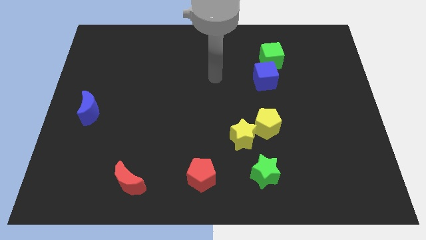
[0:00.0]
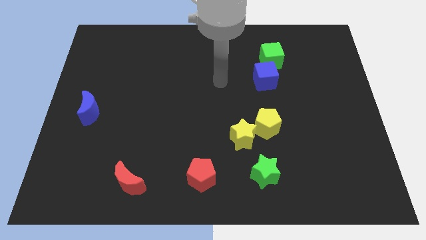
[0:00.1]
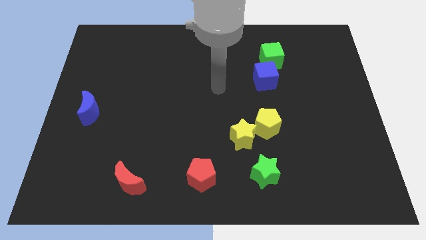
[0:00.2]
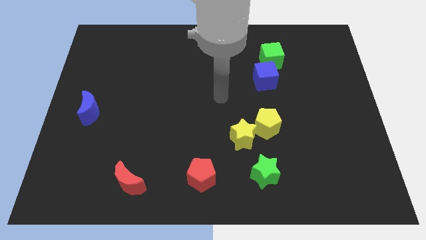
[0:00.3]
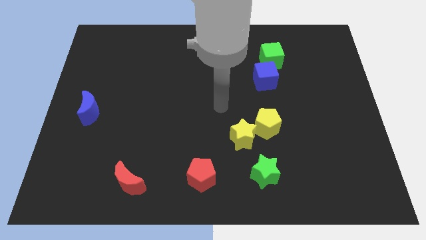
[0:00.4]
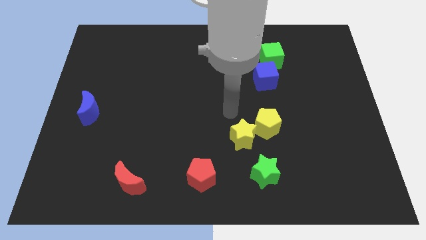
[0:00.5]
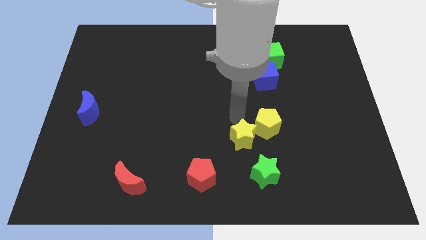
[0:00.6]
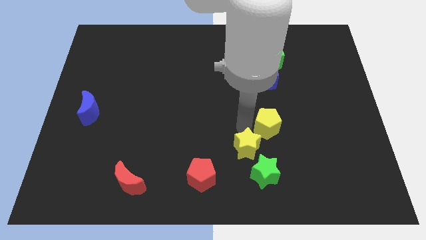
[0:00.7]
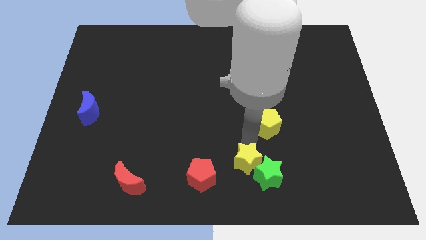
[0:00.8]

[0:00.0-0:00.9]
pull the yellow pentagon apart from the yellow star

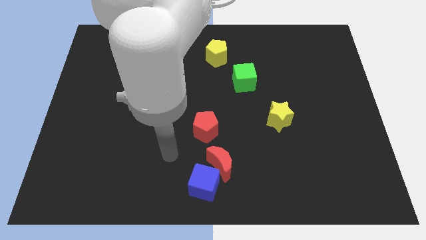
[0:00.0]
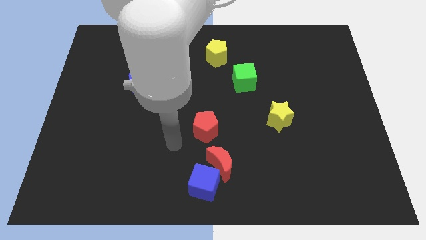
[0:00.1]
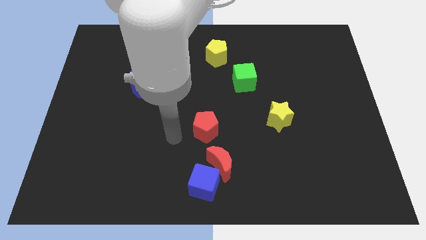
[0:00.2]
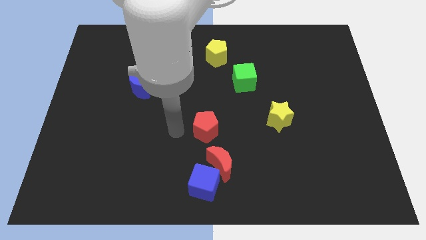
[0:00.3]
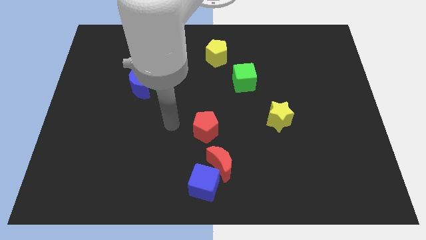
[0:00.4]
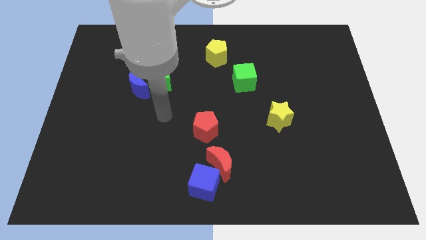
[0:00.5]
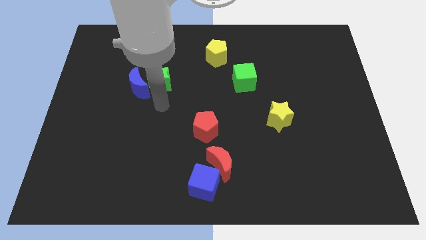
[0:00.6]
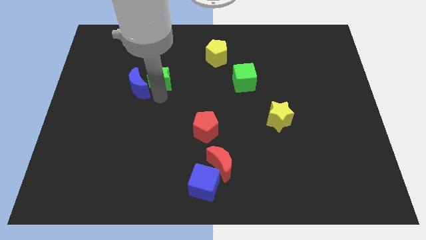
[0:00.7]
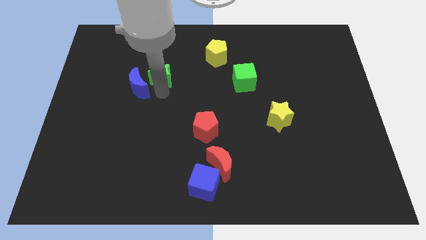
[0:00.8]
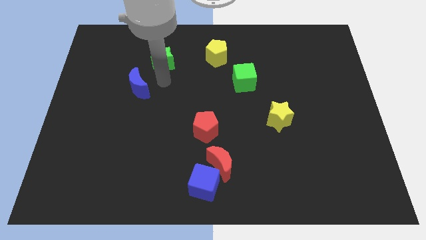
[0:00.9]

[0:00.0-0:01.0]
pull the blue moon apart from the green star

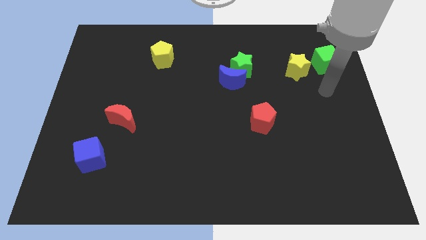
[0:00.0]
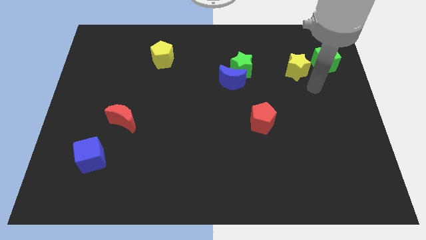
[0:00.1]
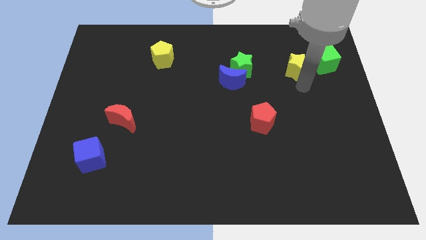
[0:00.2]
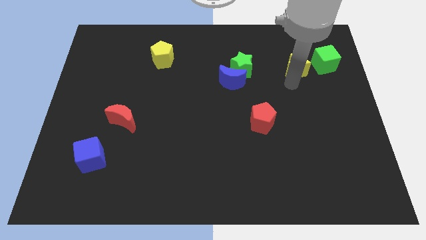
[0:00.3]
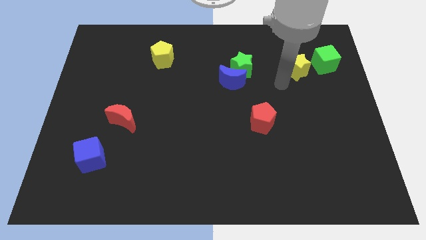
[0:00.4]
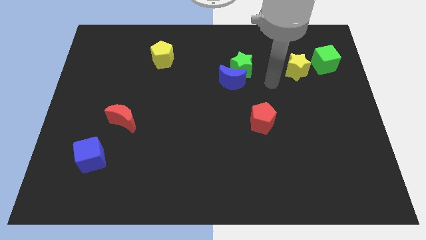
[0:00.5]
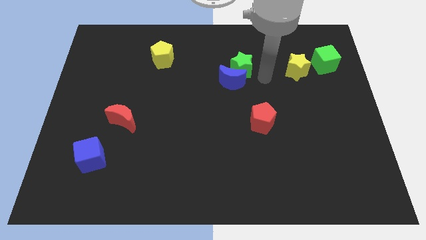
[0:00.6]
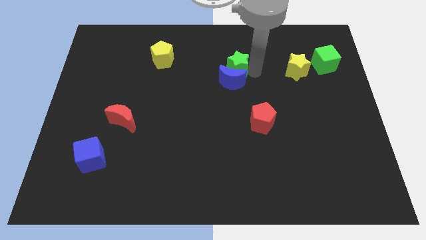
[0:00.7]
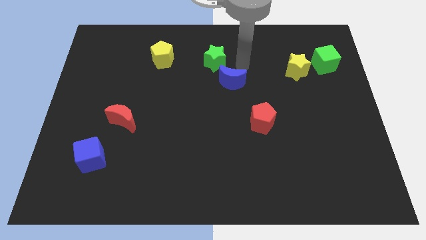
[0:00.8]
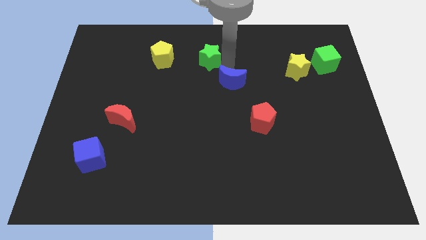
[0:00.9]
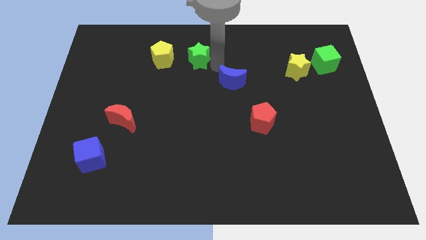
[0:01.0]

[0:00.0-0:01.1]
move the blue moon away from the green star

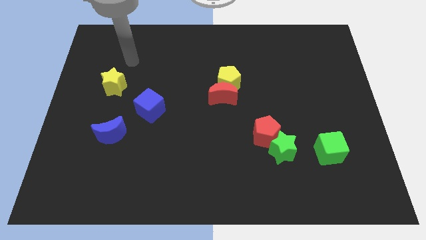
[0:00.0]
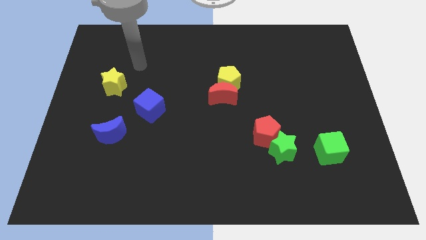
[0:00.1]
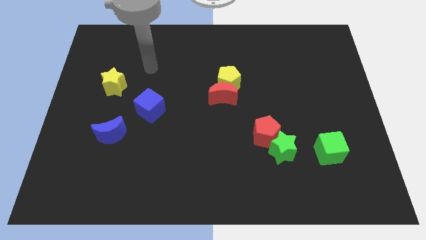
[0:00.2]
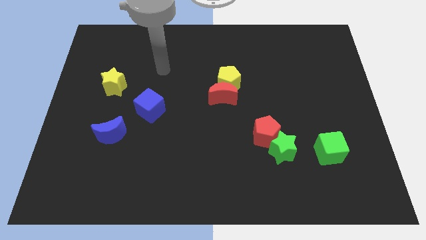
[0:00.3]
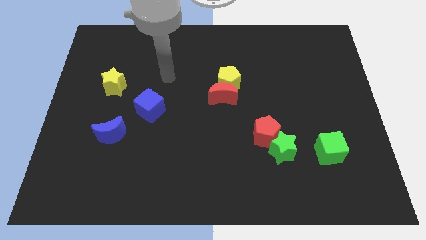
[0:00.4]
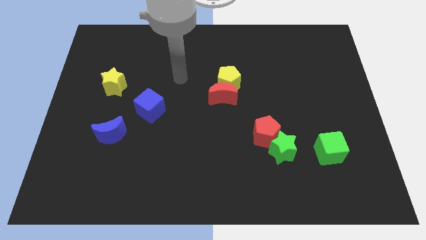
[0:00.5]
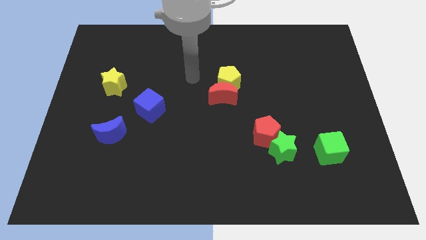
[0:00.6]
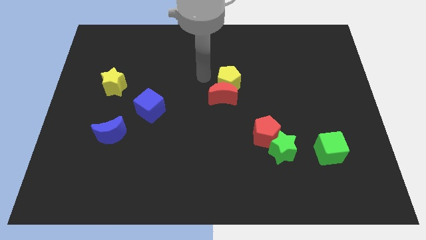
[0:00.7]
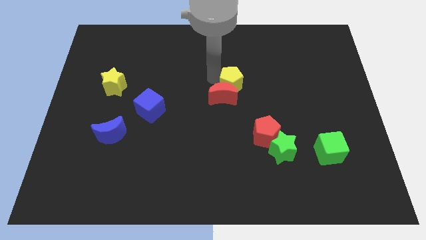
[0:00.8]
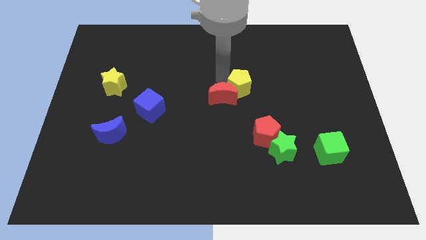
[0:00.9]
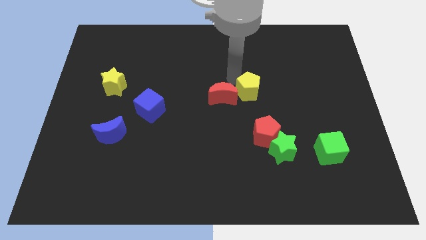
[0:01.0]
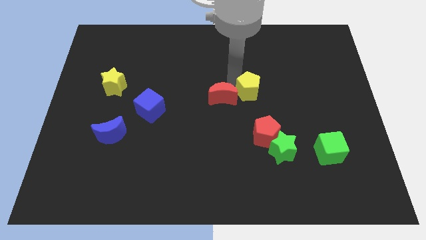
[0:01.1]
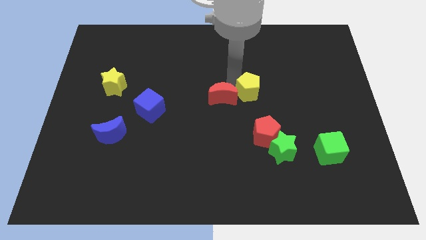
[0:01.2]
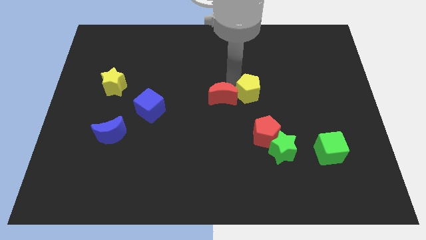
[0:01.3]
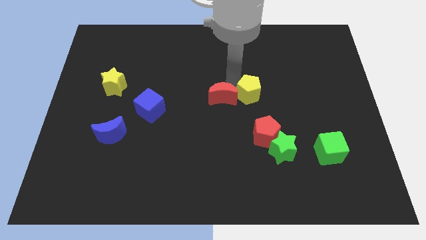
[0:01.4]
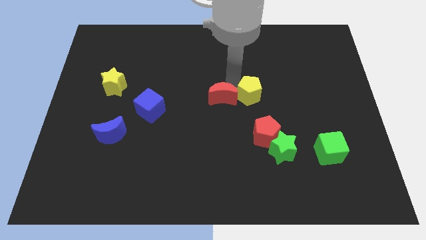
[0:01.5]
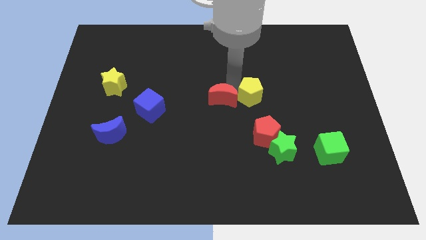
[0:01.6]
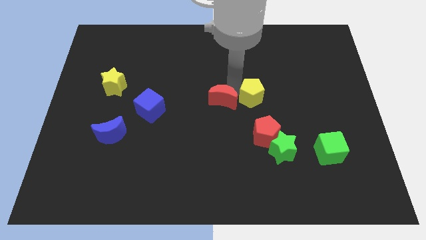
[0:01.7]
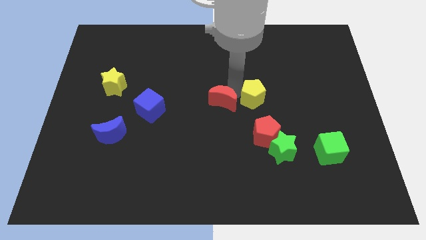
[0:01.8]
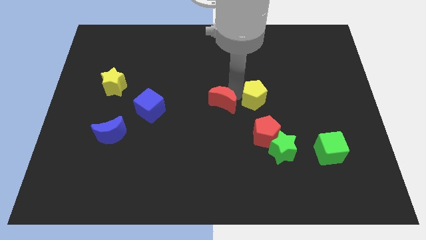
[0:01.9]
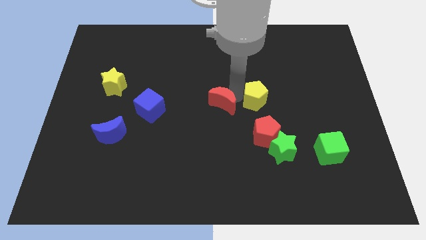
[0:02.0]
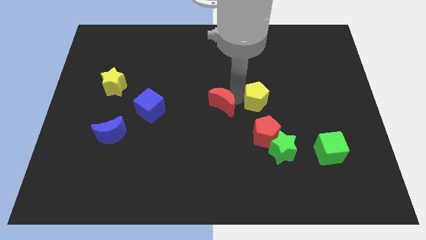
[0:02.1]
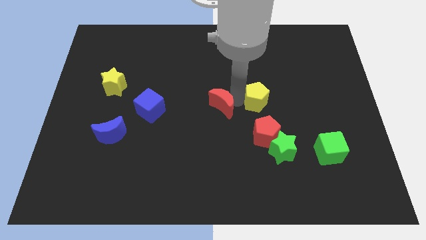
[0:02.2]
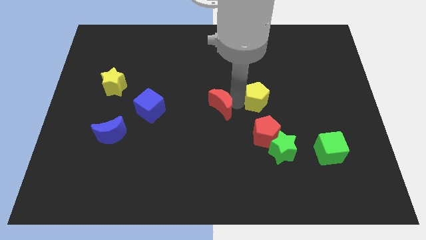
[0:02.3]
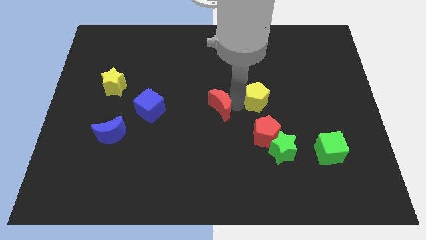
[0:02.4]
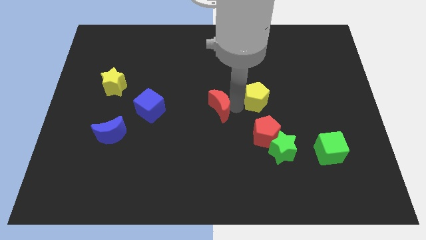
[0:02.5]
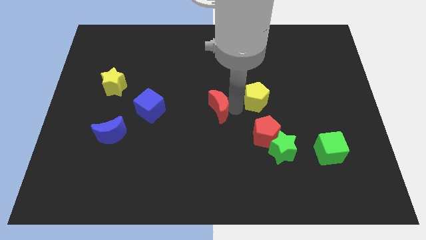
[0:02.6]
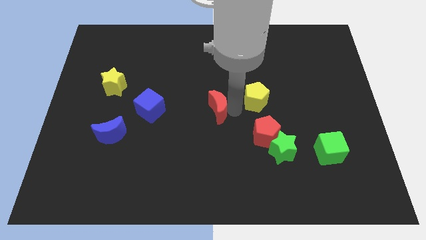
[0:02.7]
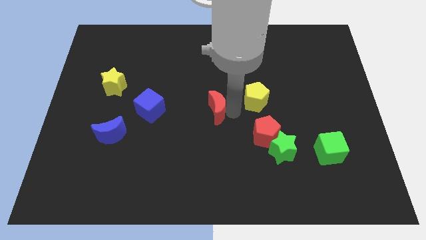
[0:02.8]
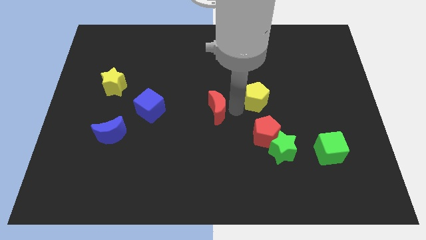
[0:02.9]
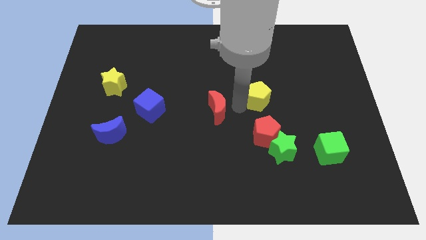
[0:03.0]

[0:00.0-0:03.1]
move the red moon away from the yellow pentagon

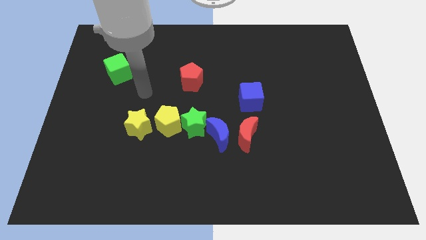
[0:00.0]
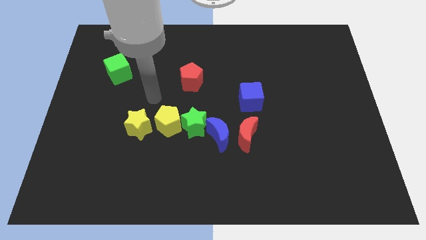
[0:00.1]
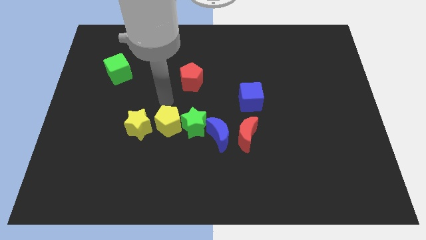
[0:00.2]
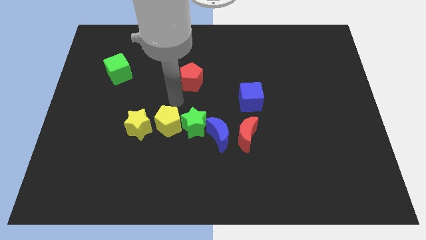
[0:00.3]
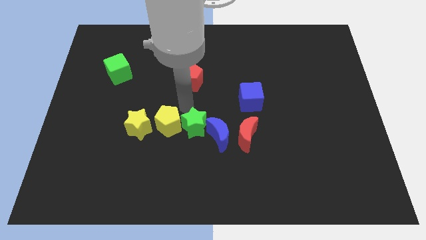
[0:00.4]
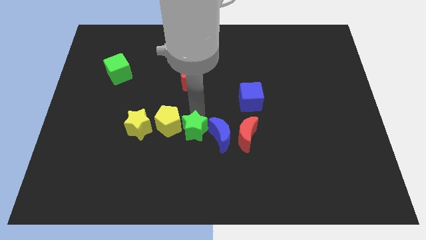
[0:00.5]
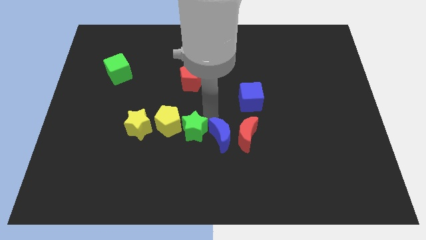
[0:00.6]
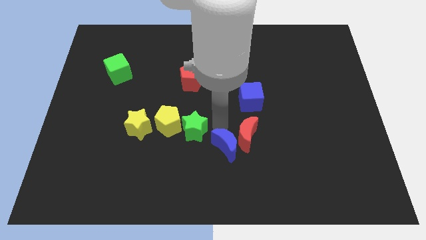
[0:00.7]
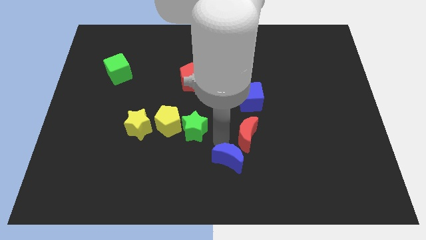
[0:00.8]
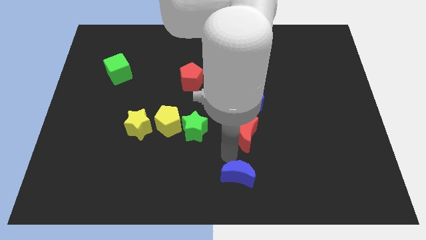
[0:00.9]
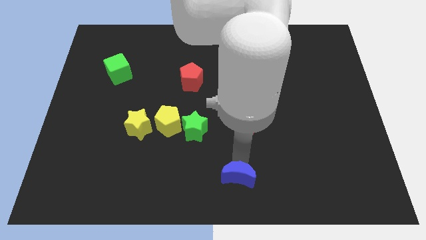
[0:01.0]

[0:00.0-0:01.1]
move the red moon away from the blue moon

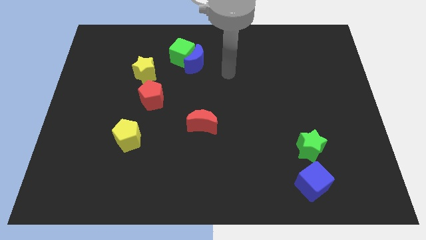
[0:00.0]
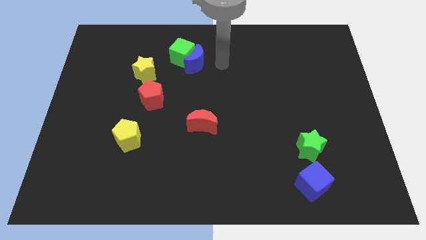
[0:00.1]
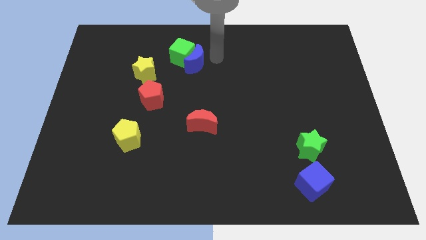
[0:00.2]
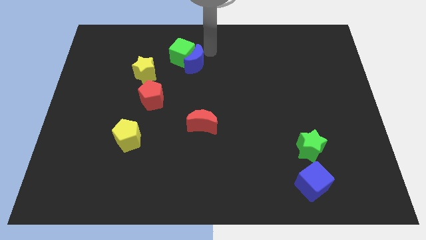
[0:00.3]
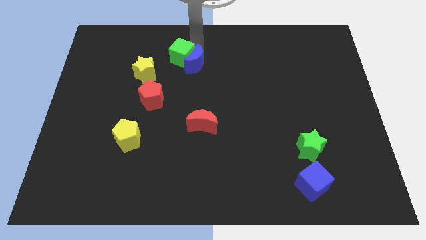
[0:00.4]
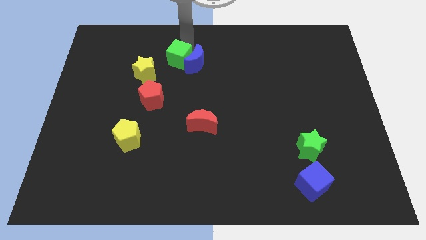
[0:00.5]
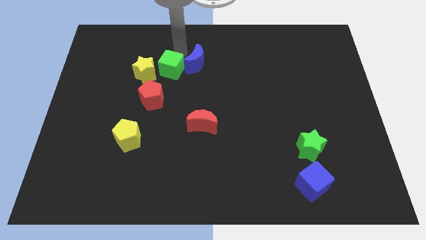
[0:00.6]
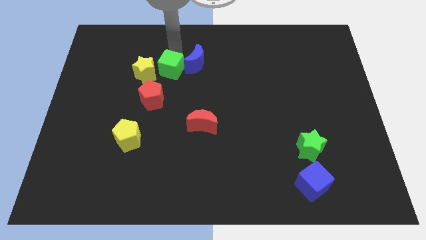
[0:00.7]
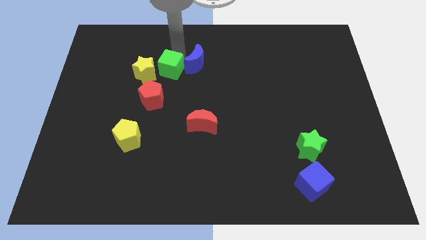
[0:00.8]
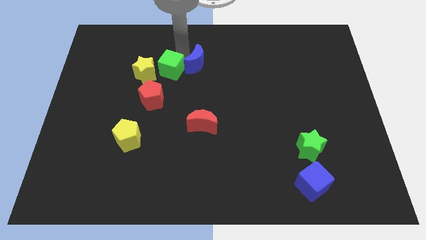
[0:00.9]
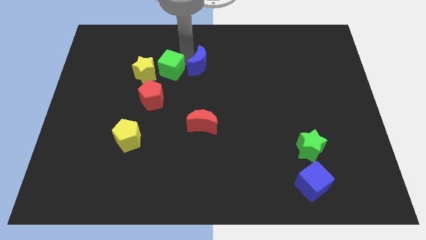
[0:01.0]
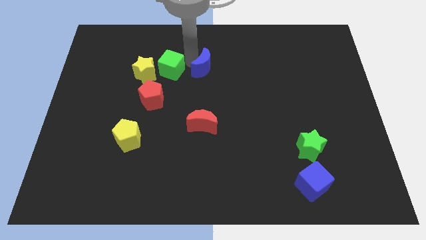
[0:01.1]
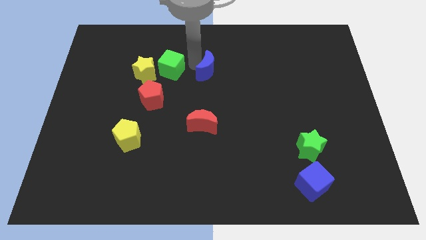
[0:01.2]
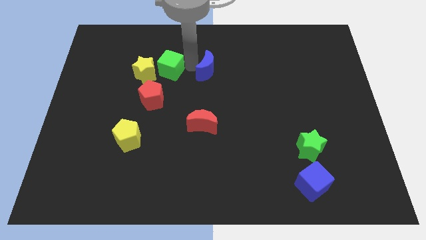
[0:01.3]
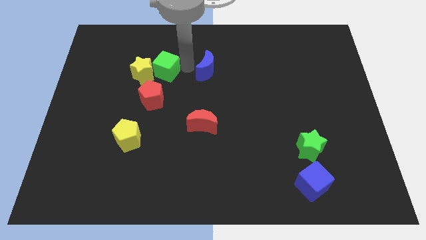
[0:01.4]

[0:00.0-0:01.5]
pull the blue moon apart from the green cube

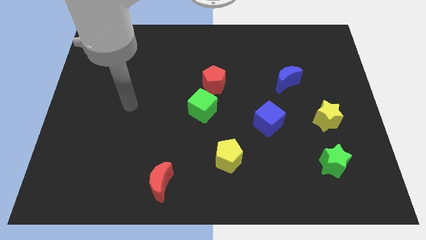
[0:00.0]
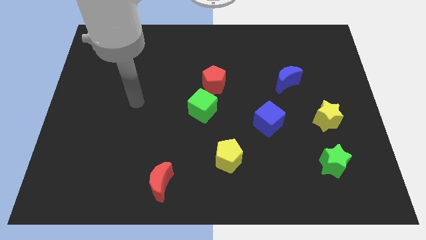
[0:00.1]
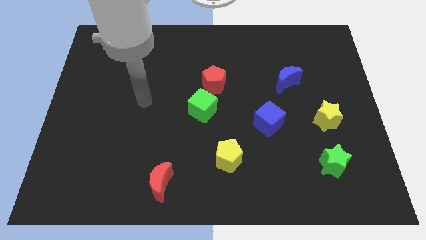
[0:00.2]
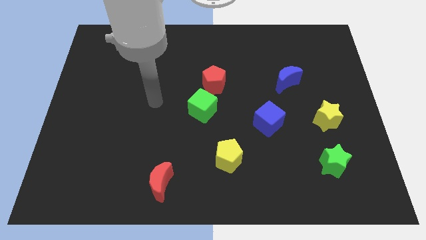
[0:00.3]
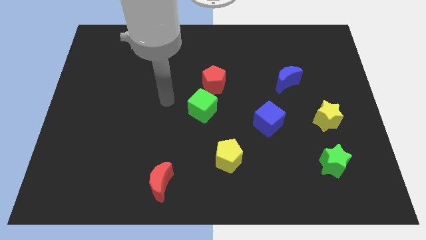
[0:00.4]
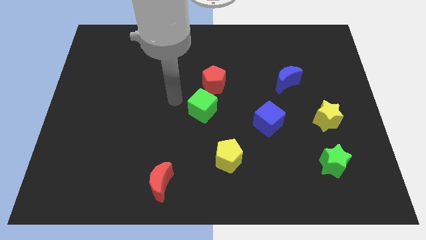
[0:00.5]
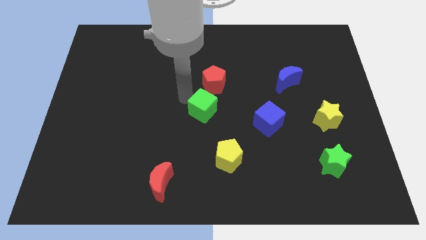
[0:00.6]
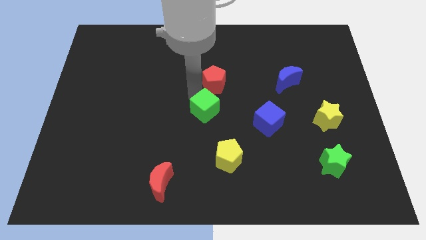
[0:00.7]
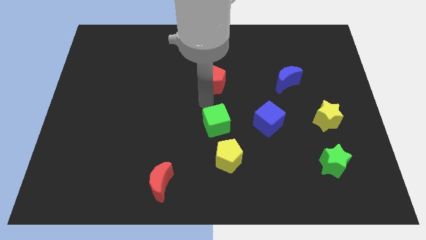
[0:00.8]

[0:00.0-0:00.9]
separate the red pentagon from the green cube
